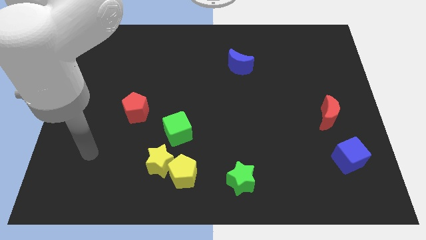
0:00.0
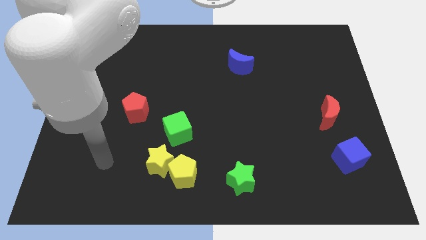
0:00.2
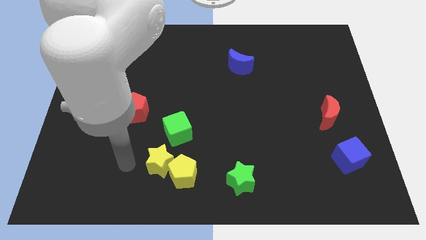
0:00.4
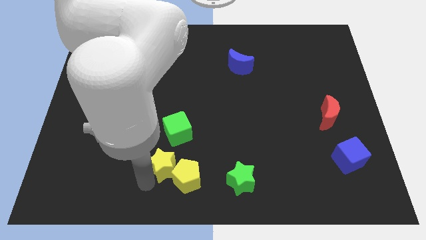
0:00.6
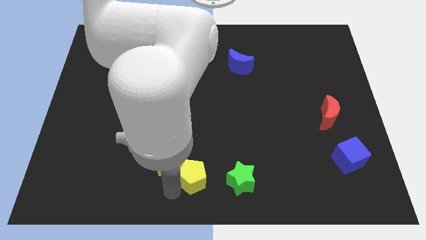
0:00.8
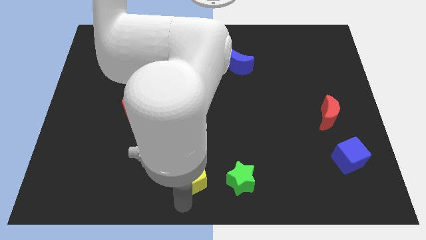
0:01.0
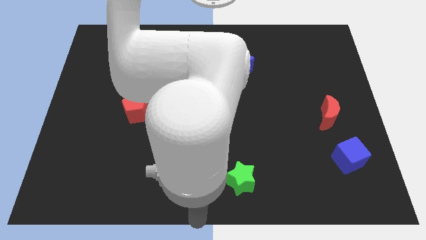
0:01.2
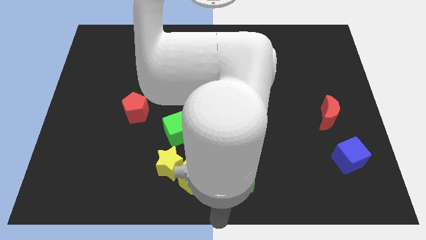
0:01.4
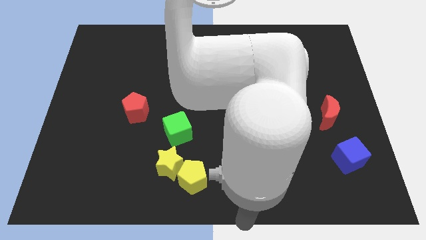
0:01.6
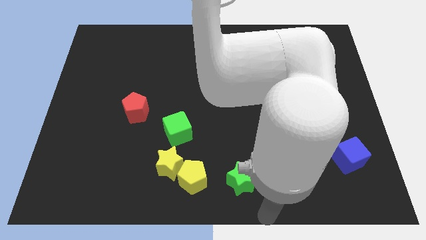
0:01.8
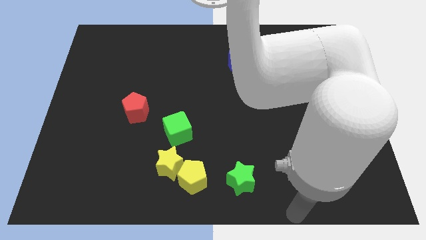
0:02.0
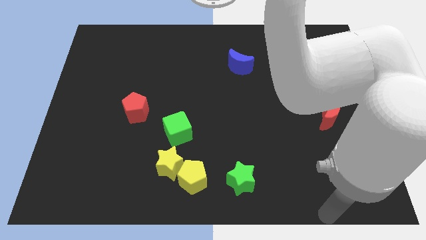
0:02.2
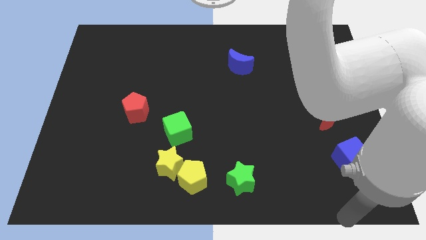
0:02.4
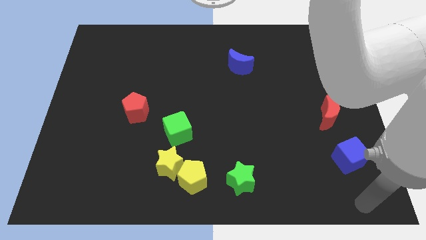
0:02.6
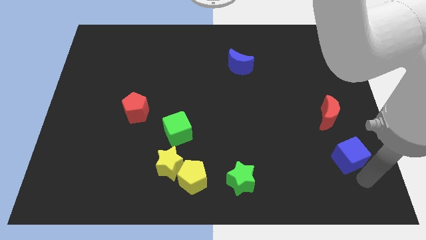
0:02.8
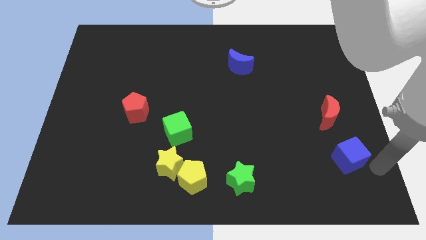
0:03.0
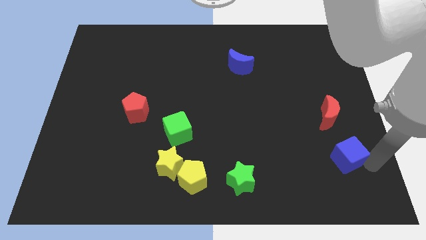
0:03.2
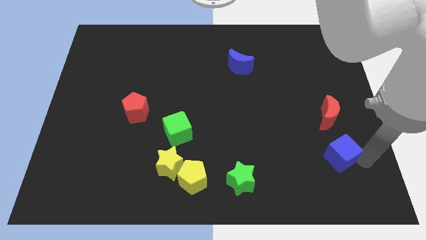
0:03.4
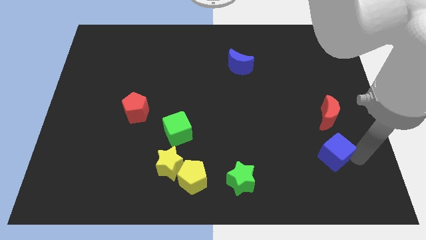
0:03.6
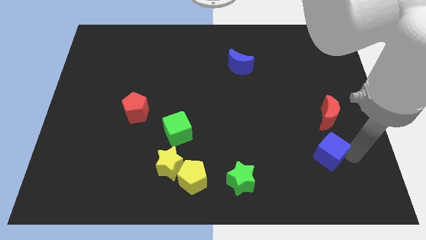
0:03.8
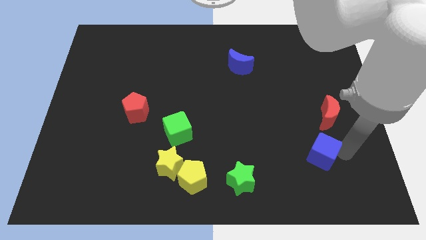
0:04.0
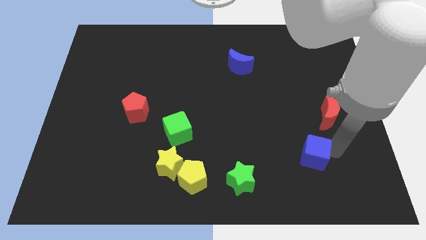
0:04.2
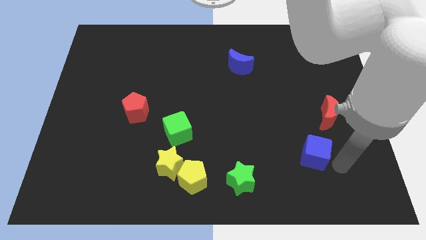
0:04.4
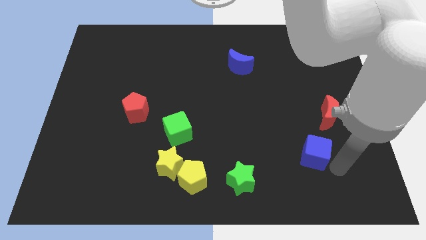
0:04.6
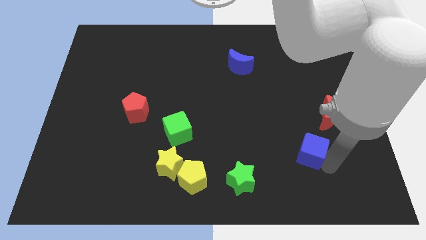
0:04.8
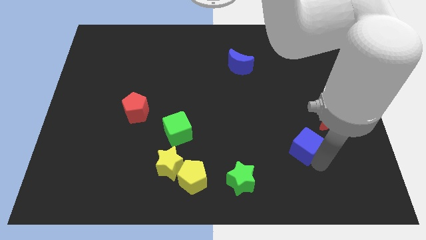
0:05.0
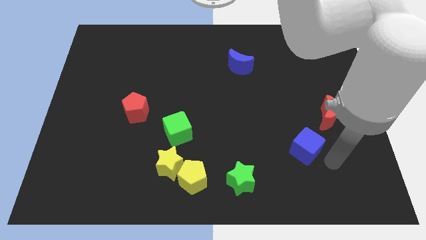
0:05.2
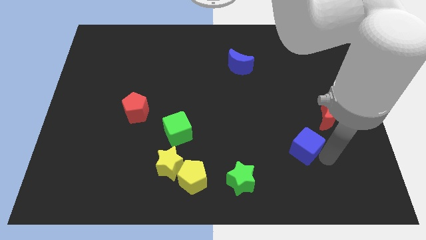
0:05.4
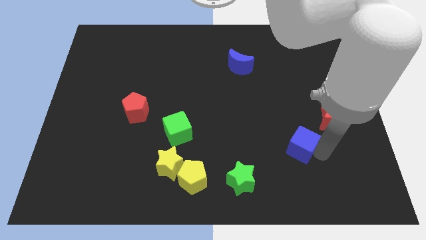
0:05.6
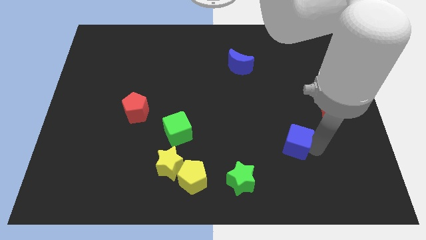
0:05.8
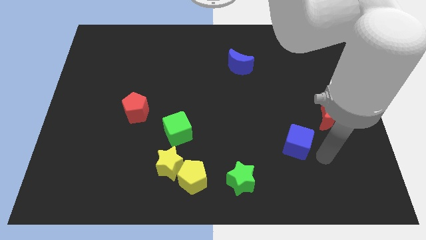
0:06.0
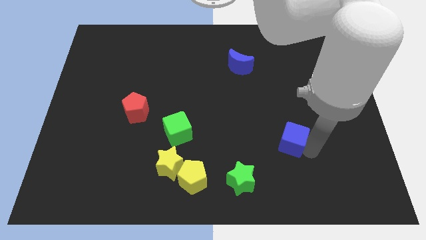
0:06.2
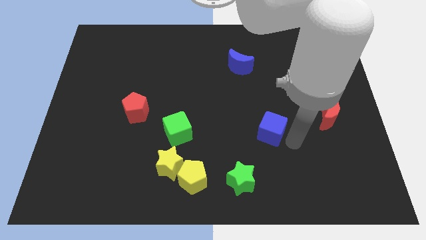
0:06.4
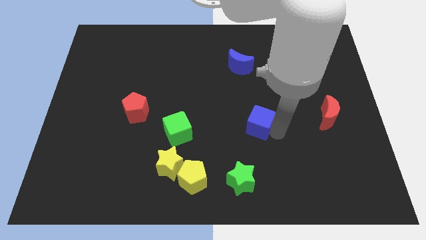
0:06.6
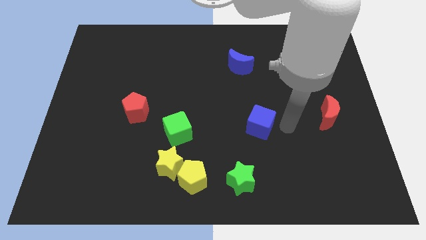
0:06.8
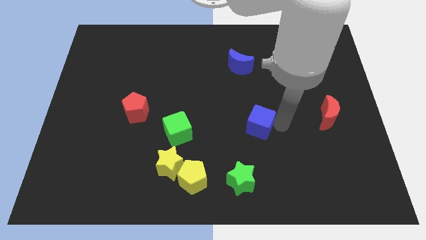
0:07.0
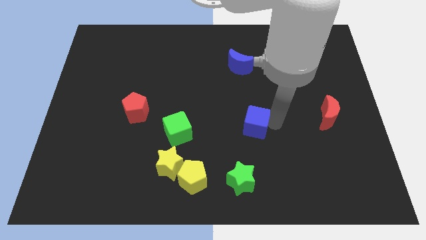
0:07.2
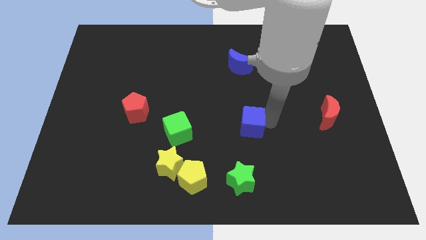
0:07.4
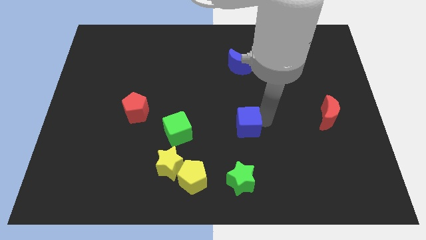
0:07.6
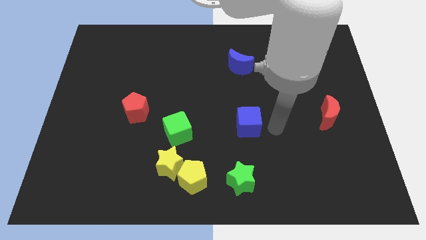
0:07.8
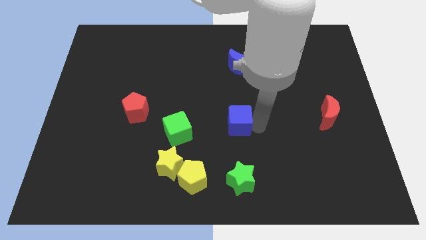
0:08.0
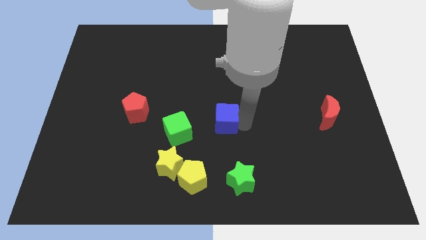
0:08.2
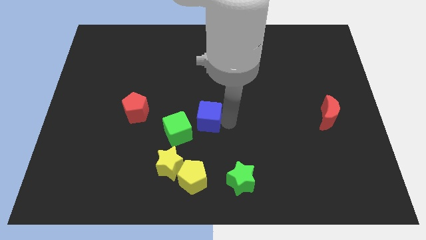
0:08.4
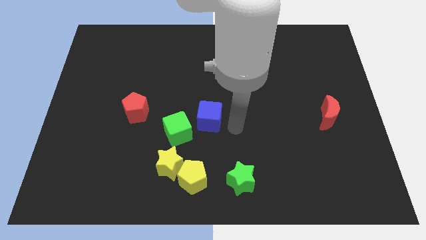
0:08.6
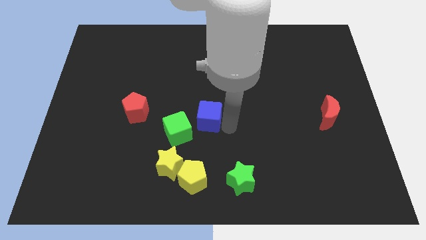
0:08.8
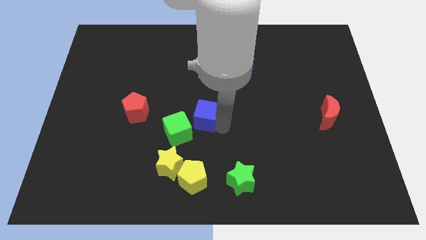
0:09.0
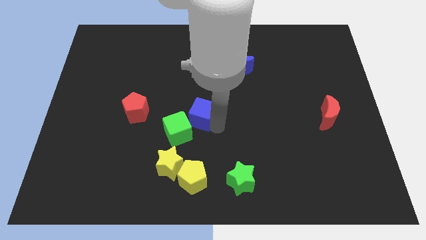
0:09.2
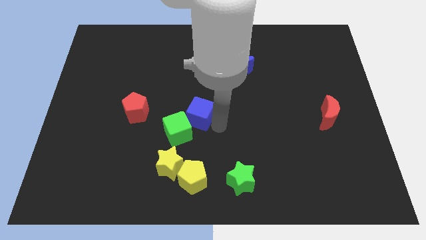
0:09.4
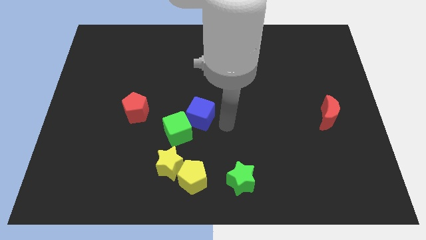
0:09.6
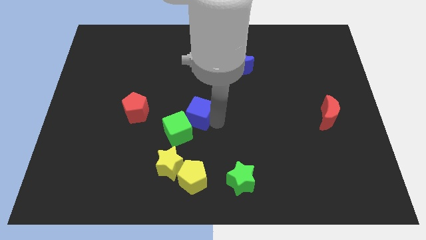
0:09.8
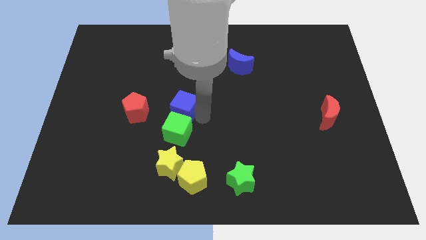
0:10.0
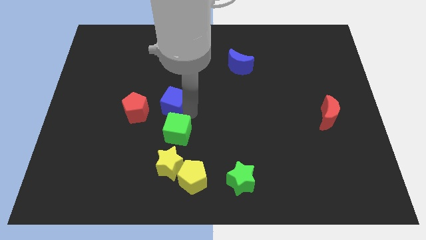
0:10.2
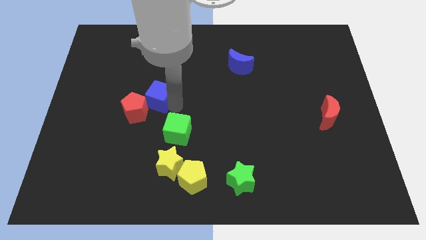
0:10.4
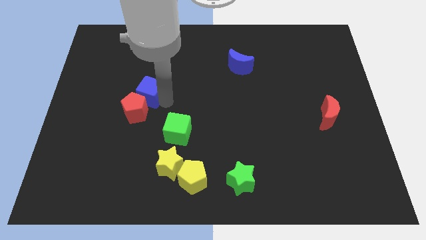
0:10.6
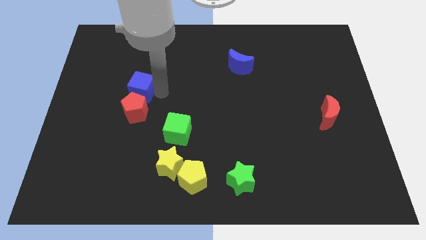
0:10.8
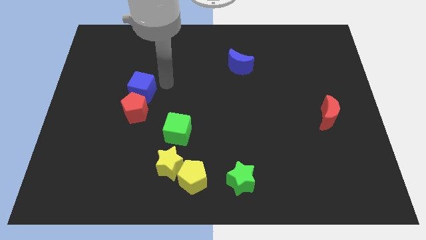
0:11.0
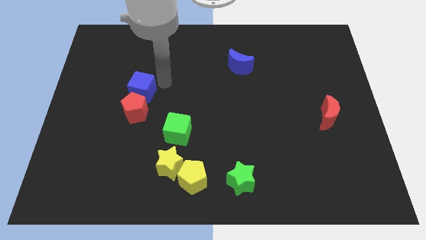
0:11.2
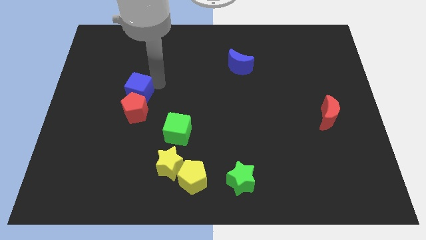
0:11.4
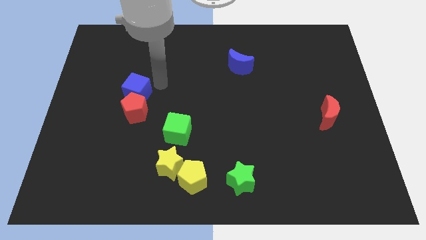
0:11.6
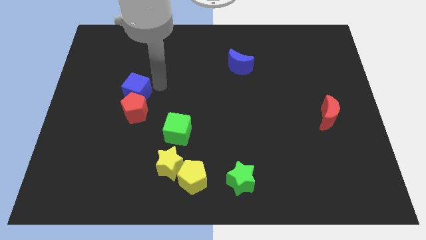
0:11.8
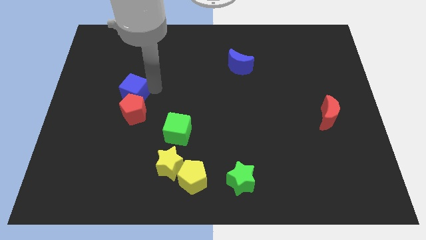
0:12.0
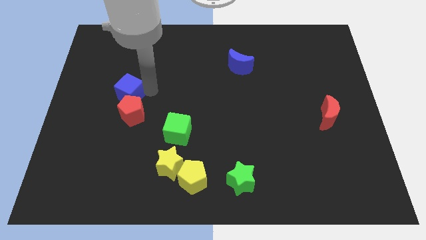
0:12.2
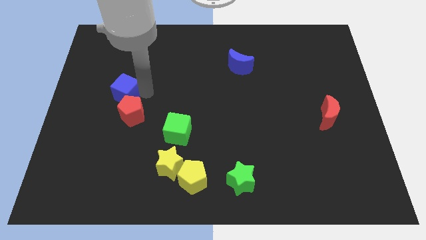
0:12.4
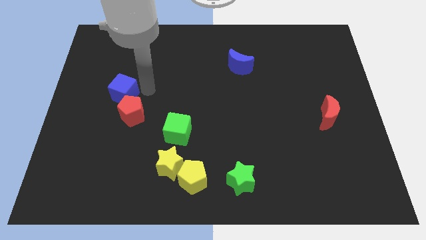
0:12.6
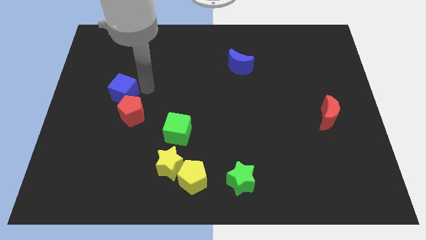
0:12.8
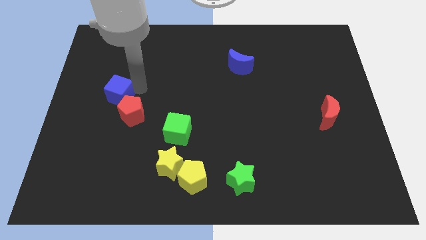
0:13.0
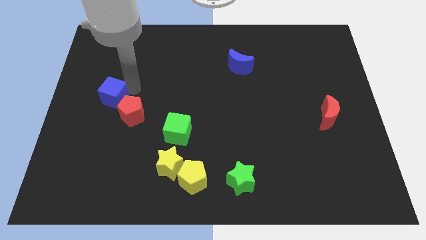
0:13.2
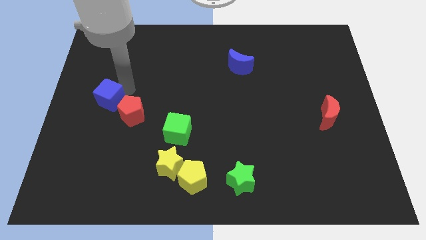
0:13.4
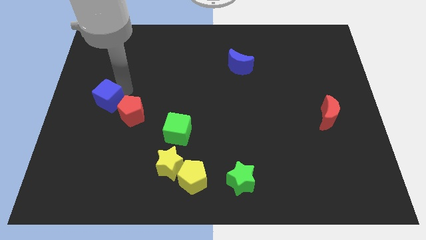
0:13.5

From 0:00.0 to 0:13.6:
move the blue cube to the left side
